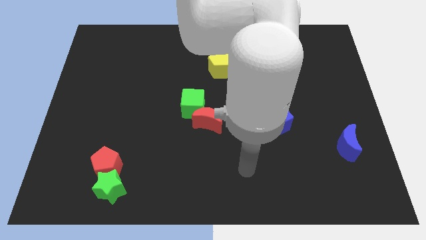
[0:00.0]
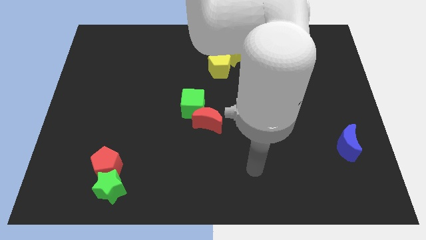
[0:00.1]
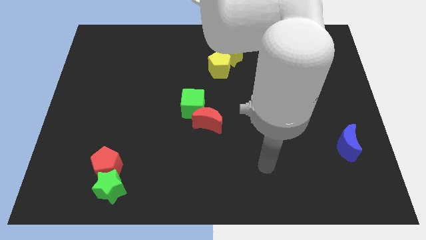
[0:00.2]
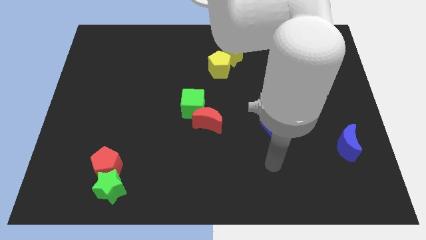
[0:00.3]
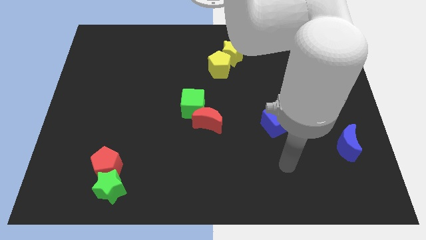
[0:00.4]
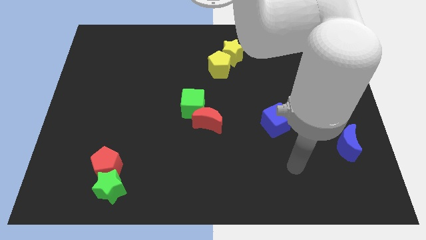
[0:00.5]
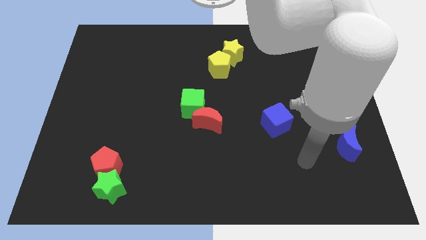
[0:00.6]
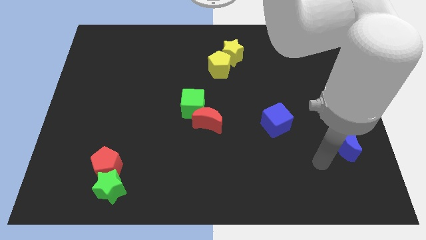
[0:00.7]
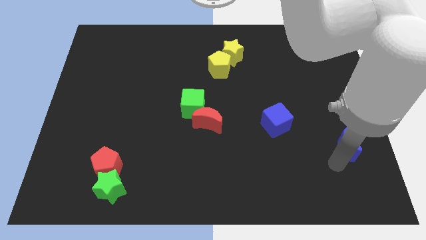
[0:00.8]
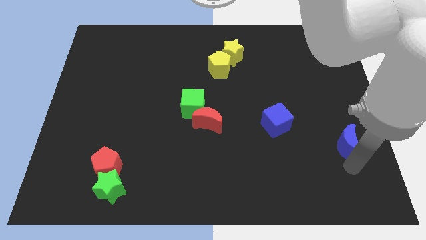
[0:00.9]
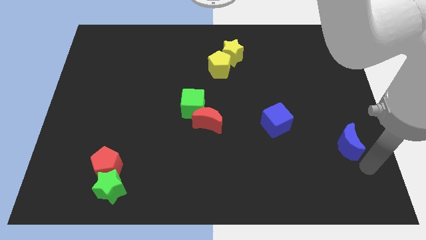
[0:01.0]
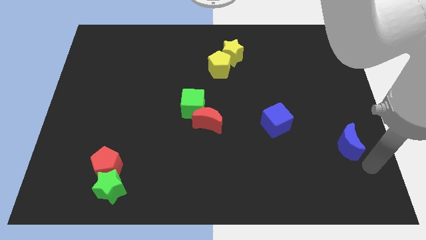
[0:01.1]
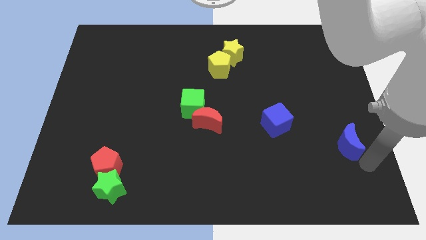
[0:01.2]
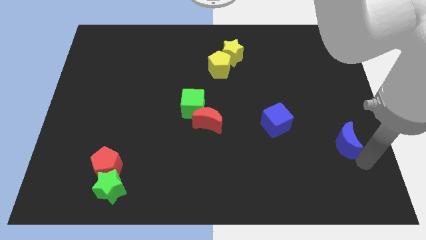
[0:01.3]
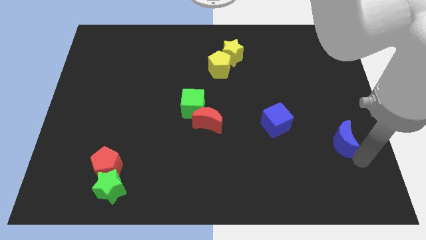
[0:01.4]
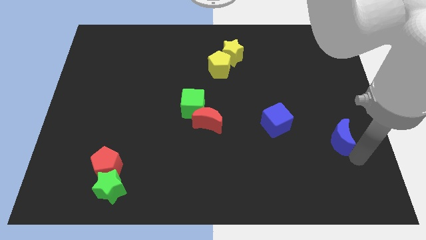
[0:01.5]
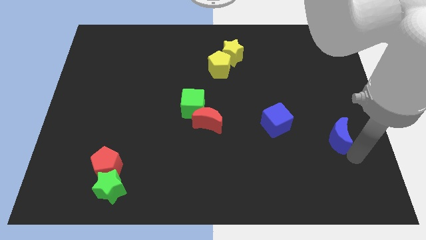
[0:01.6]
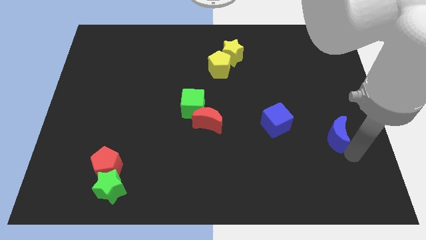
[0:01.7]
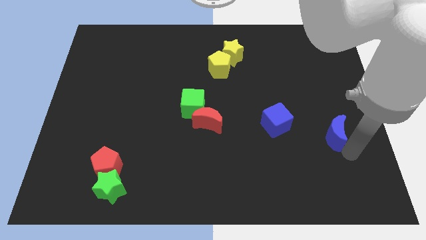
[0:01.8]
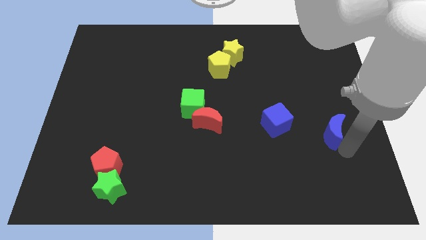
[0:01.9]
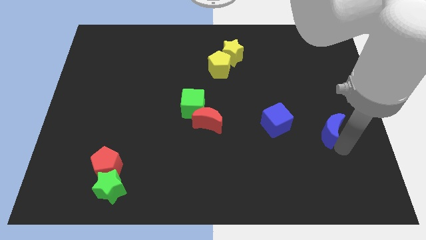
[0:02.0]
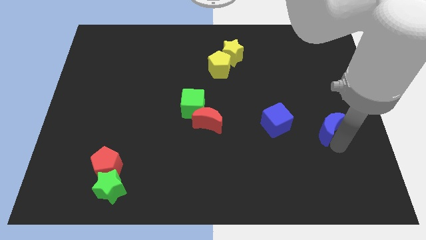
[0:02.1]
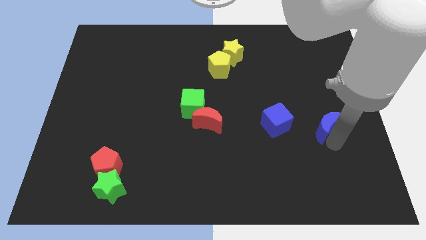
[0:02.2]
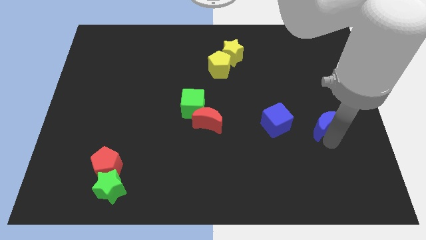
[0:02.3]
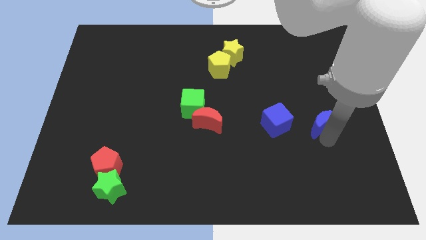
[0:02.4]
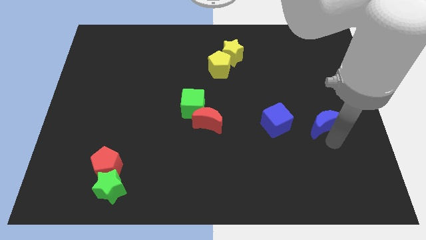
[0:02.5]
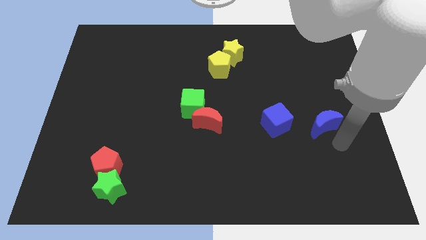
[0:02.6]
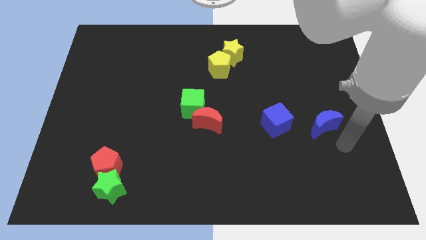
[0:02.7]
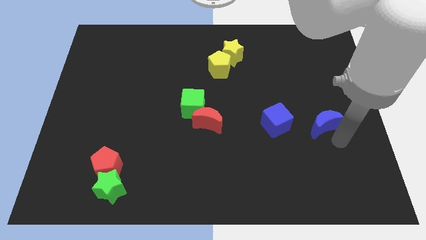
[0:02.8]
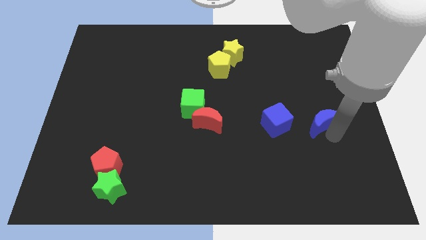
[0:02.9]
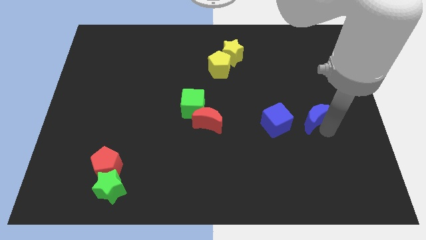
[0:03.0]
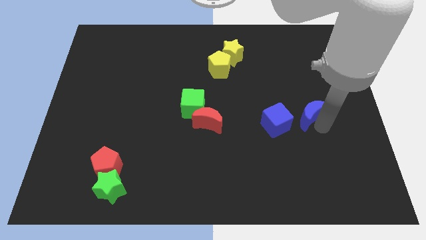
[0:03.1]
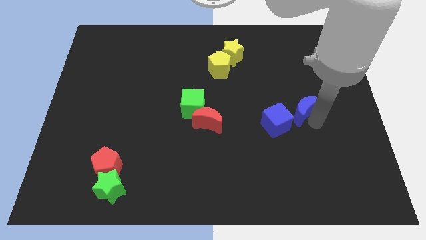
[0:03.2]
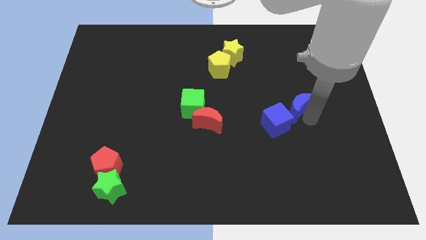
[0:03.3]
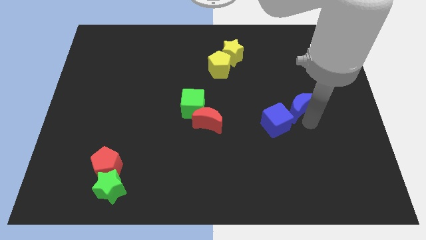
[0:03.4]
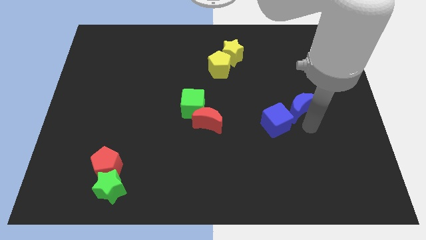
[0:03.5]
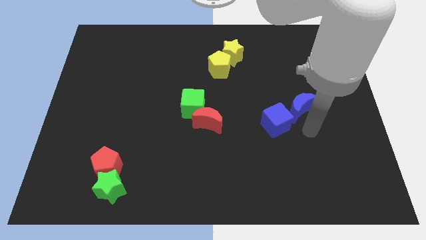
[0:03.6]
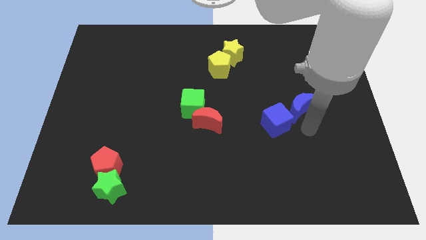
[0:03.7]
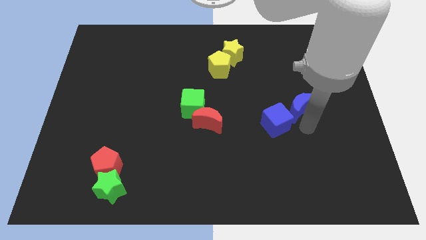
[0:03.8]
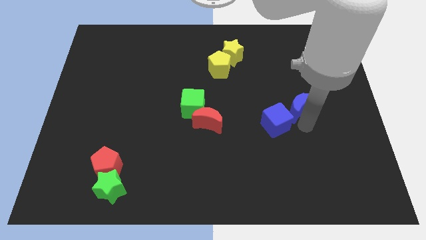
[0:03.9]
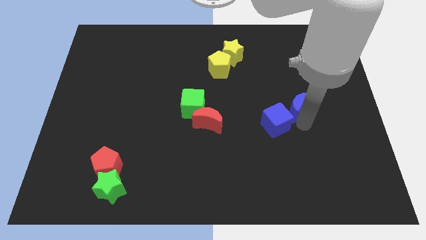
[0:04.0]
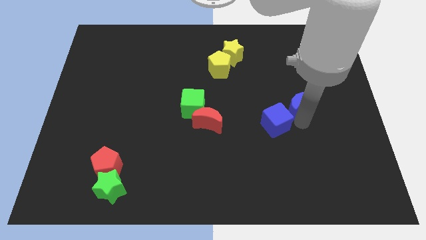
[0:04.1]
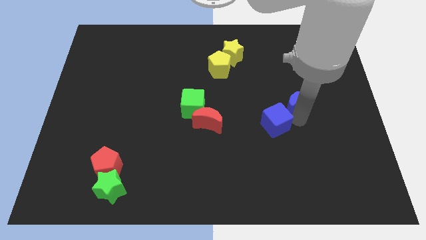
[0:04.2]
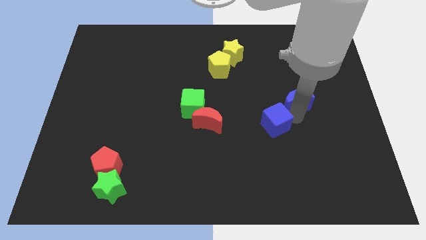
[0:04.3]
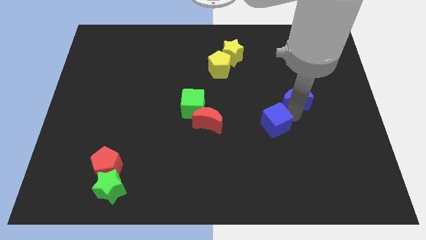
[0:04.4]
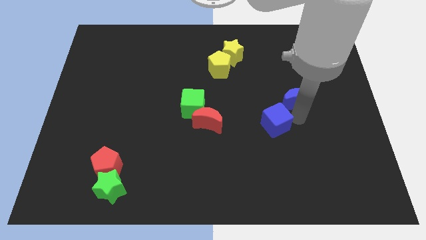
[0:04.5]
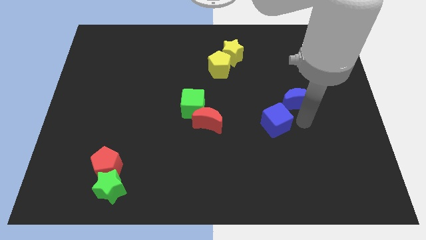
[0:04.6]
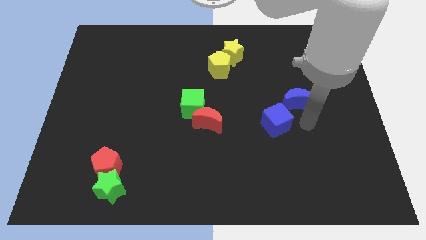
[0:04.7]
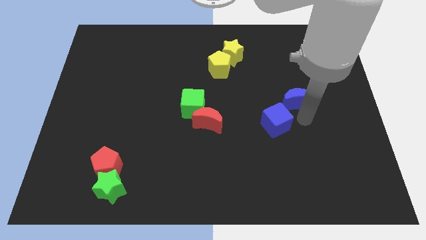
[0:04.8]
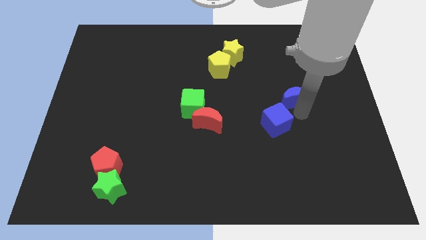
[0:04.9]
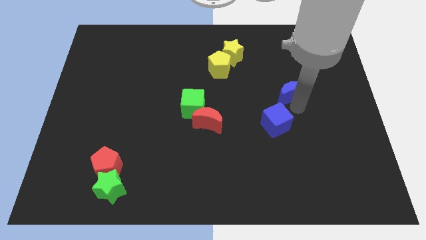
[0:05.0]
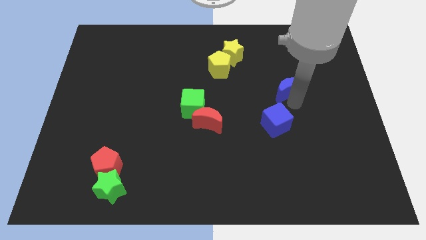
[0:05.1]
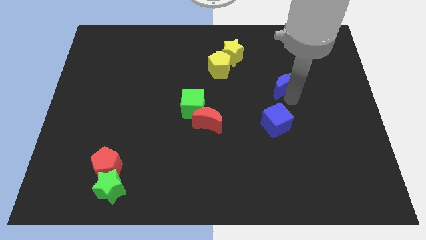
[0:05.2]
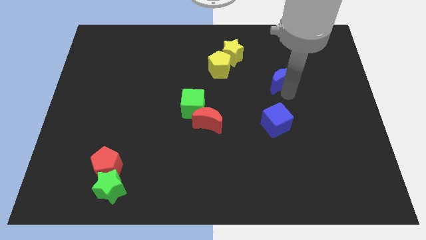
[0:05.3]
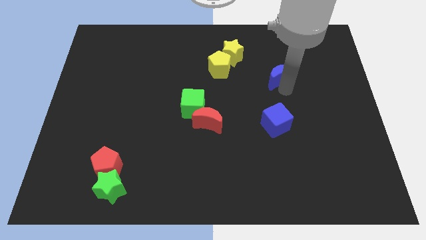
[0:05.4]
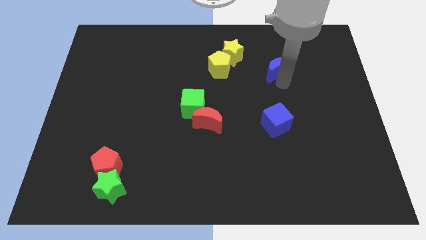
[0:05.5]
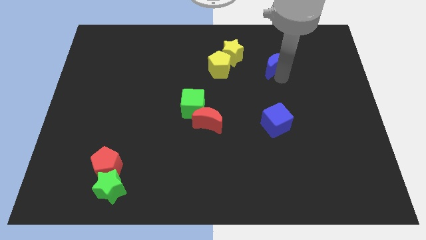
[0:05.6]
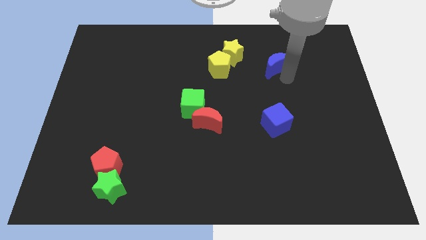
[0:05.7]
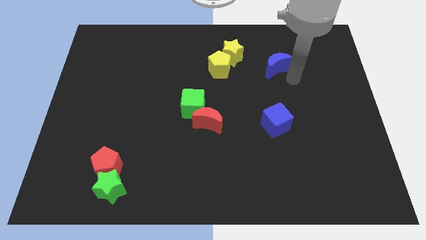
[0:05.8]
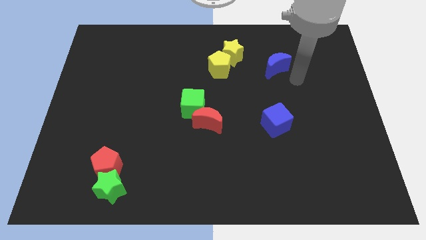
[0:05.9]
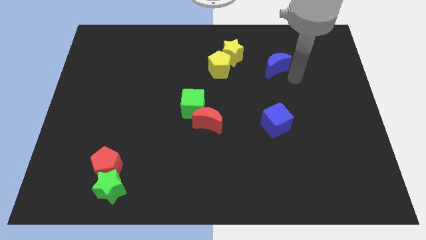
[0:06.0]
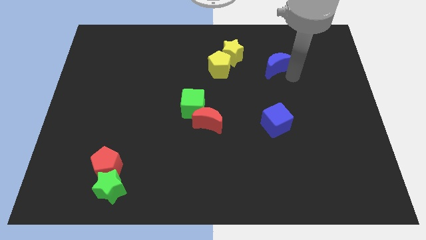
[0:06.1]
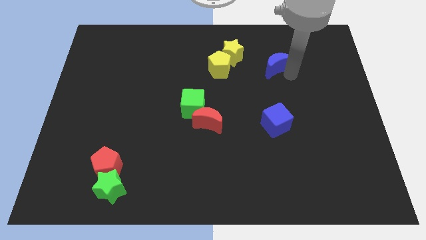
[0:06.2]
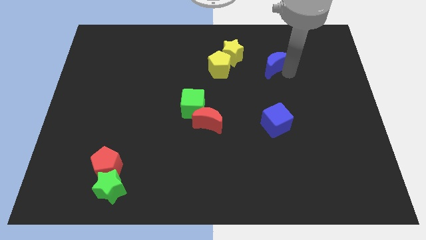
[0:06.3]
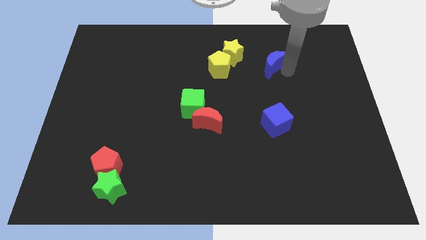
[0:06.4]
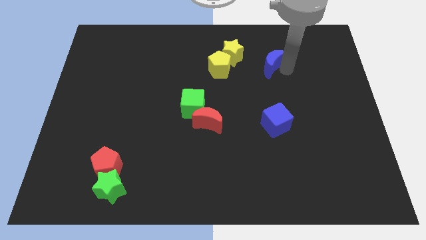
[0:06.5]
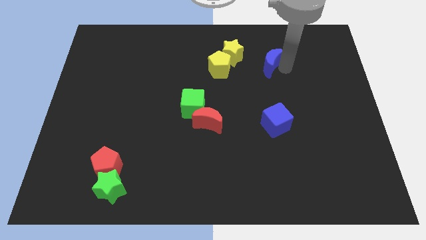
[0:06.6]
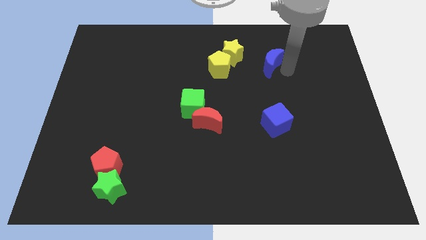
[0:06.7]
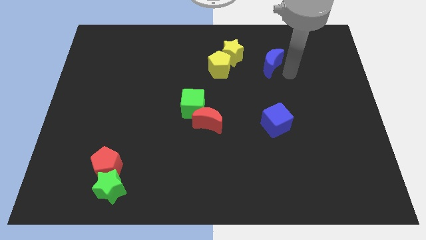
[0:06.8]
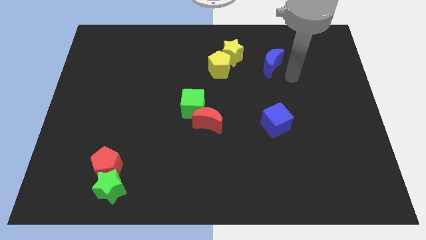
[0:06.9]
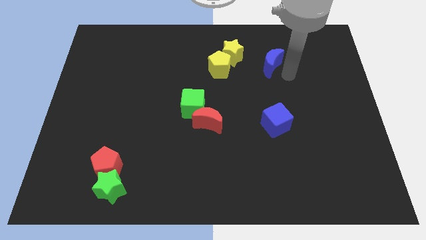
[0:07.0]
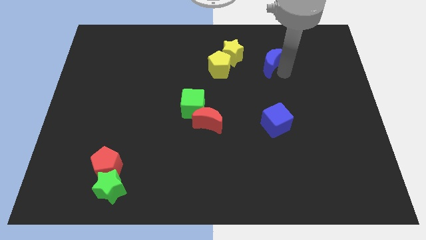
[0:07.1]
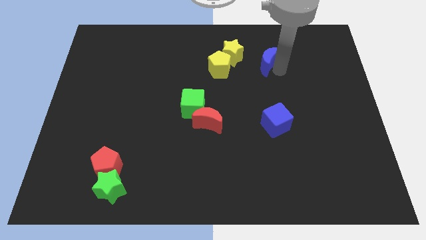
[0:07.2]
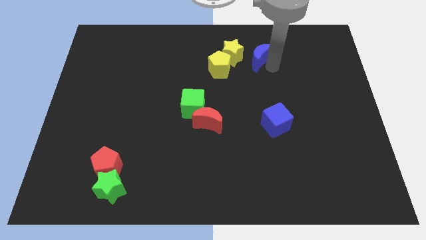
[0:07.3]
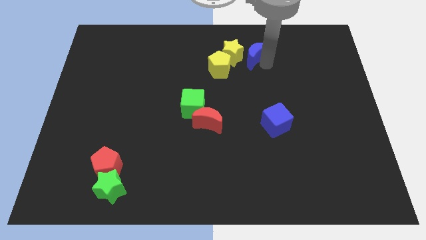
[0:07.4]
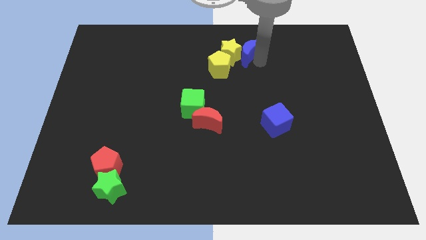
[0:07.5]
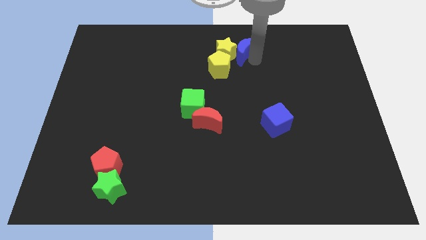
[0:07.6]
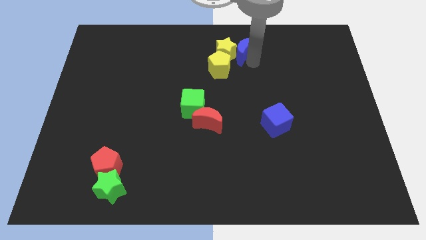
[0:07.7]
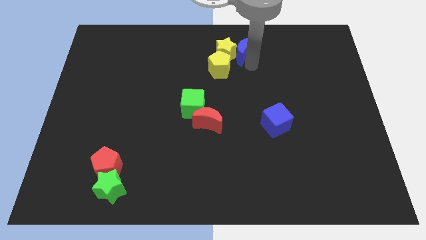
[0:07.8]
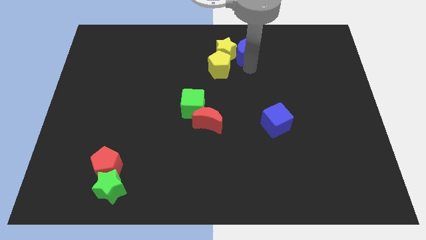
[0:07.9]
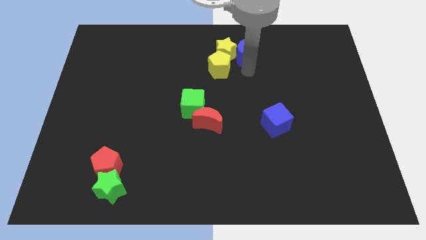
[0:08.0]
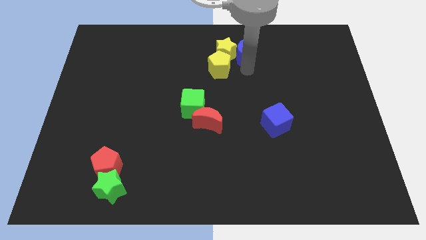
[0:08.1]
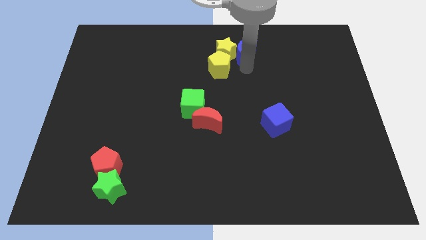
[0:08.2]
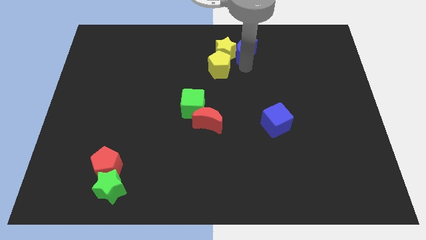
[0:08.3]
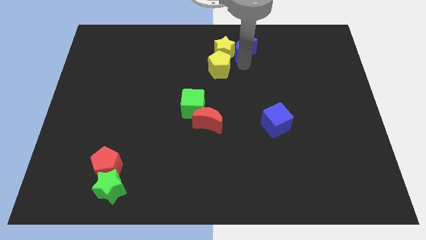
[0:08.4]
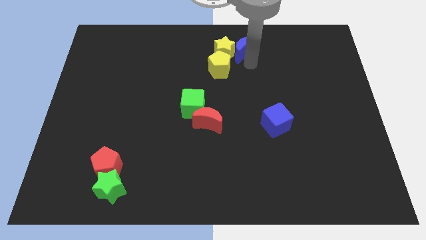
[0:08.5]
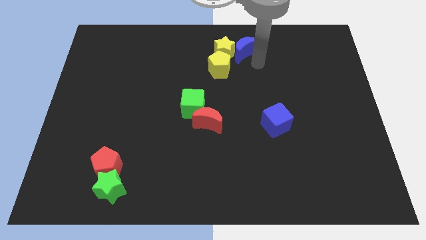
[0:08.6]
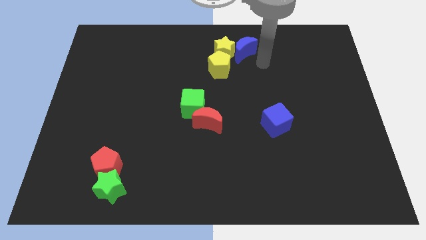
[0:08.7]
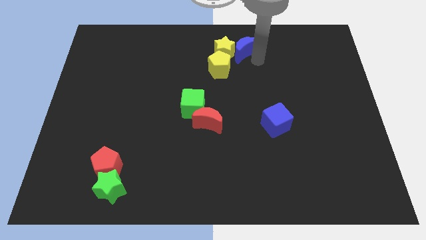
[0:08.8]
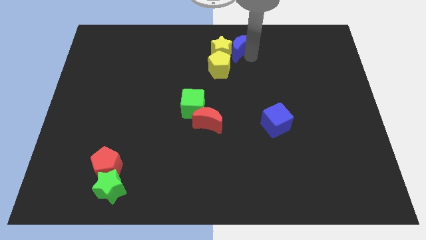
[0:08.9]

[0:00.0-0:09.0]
put the blue moon to the top
